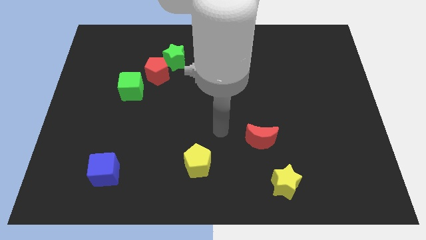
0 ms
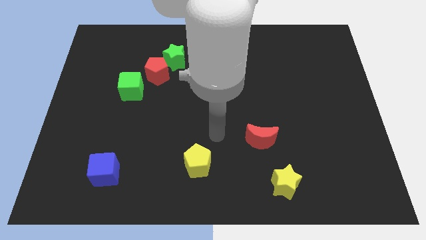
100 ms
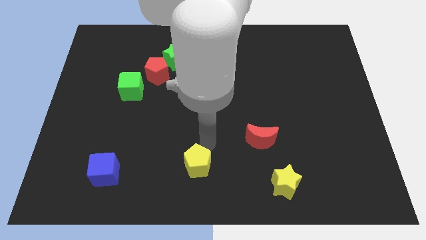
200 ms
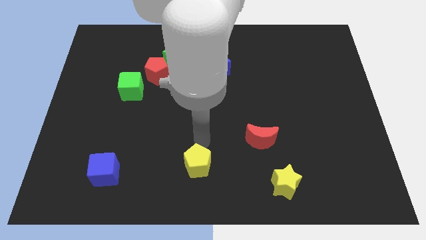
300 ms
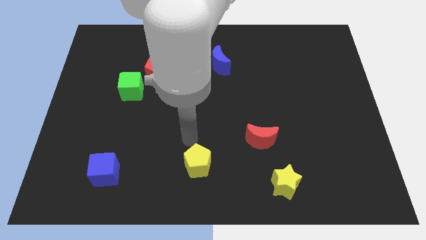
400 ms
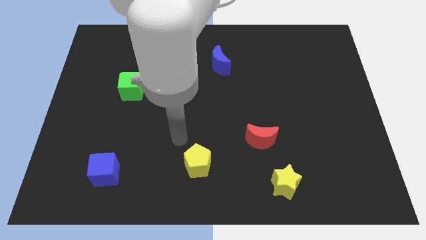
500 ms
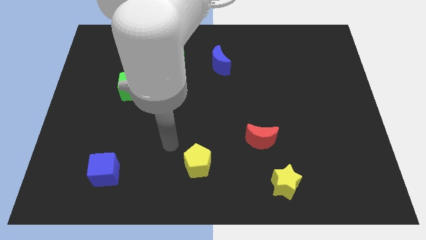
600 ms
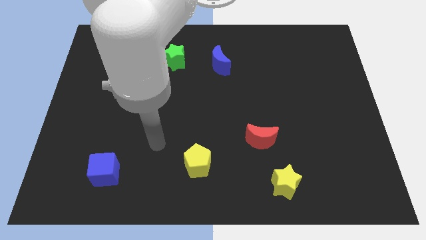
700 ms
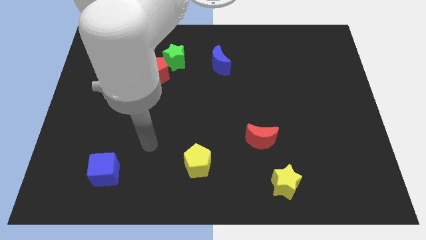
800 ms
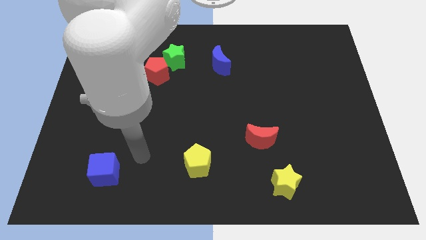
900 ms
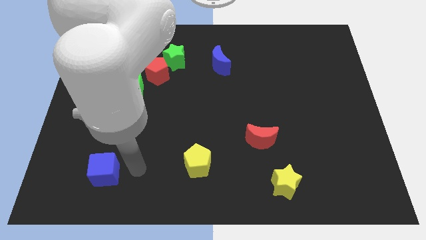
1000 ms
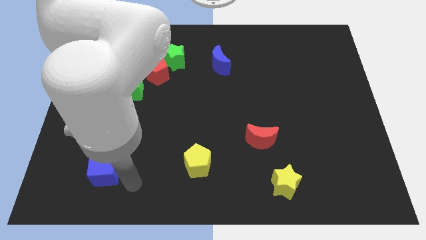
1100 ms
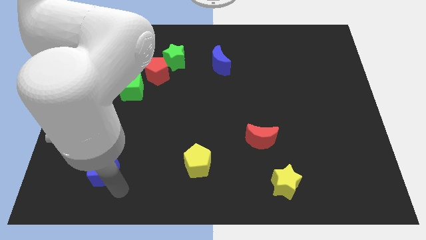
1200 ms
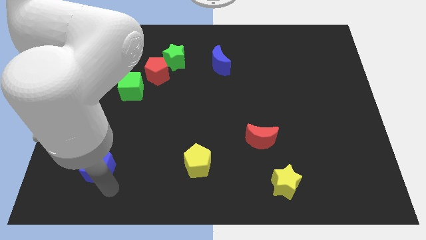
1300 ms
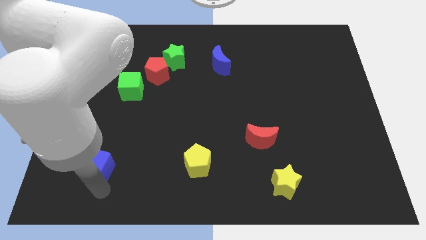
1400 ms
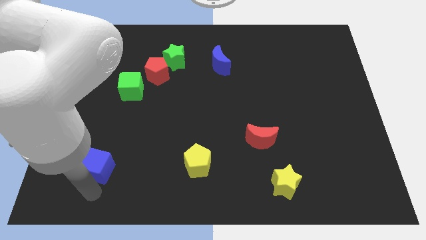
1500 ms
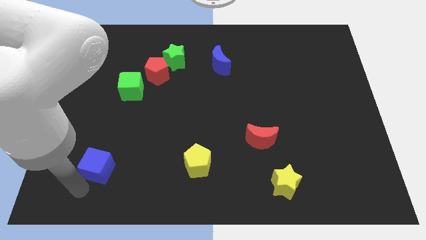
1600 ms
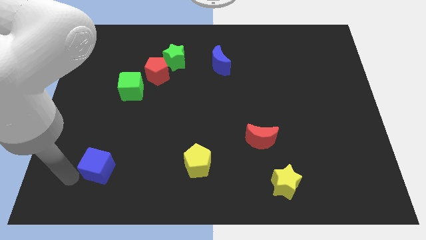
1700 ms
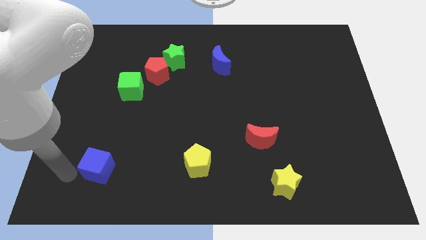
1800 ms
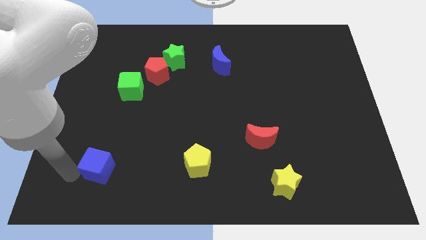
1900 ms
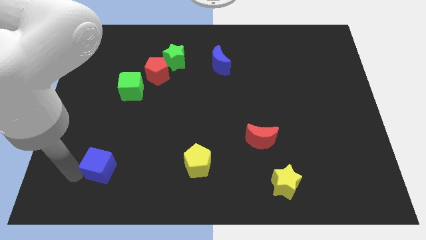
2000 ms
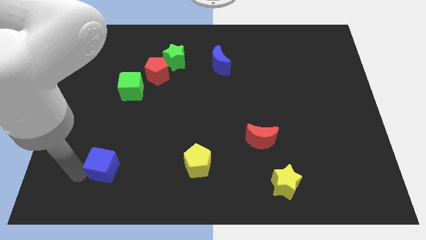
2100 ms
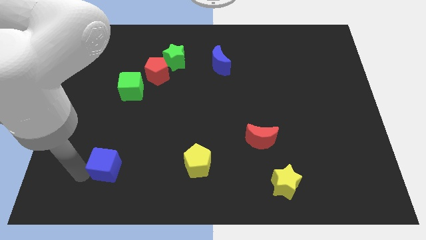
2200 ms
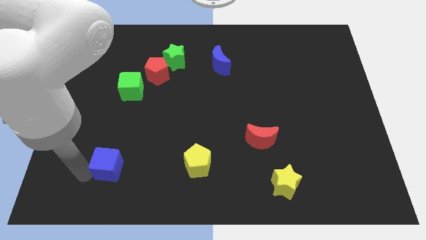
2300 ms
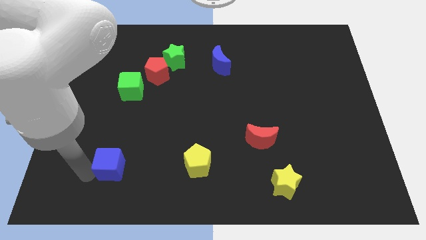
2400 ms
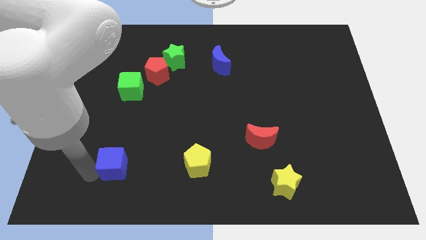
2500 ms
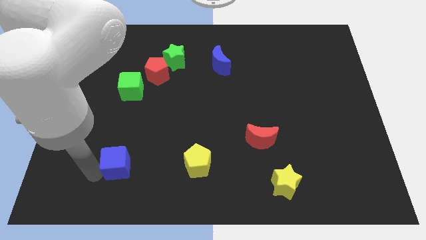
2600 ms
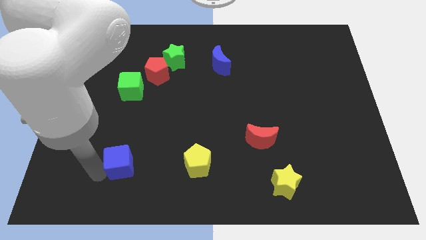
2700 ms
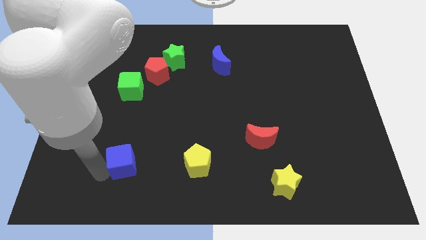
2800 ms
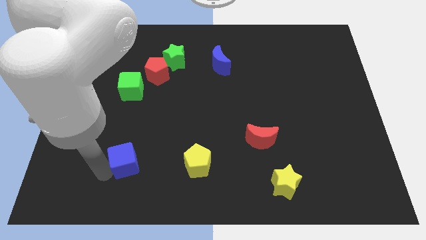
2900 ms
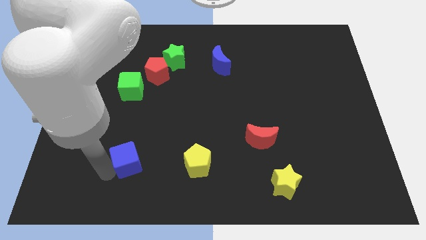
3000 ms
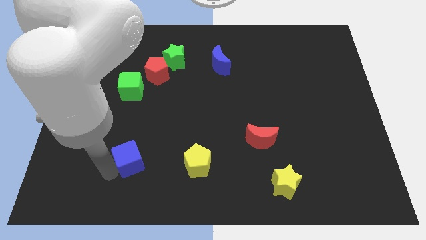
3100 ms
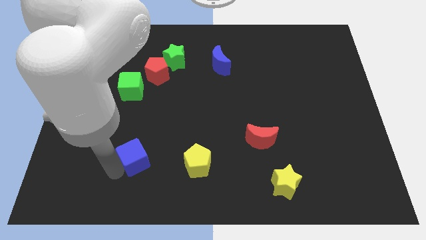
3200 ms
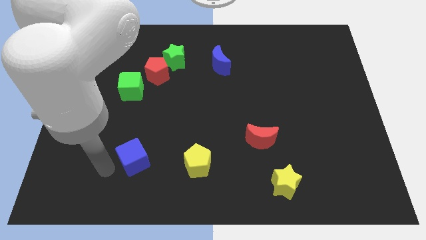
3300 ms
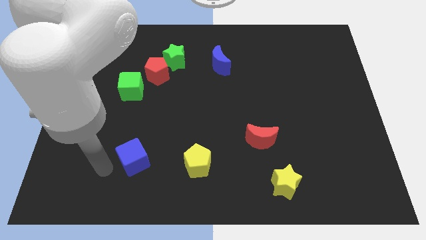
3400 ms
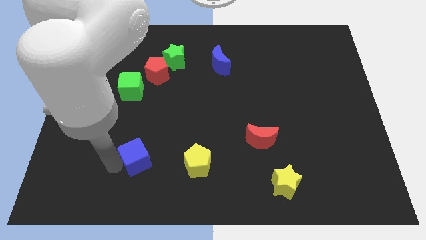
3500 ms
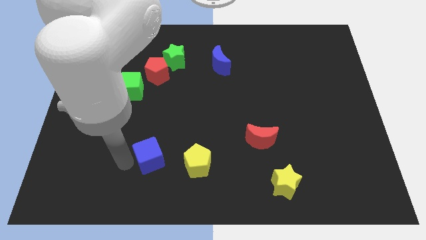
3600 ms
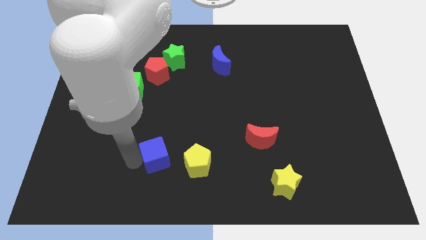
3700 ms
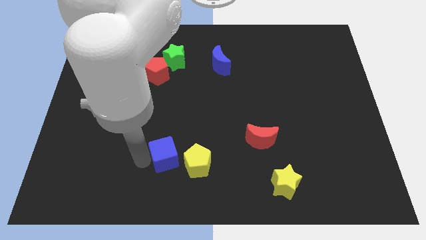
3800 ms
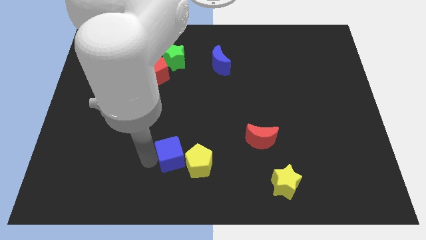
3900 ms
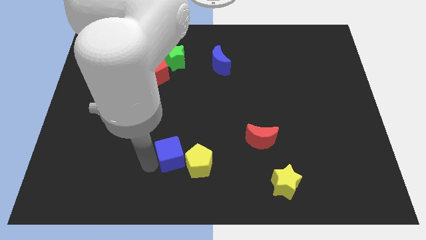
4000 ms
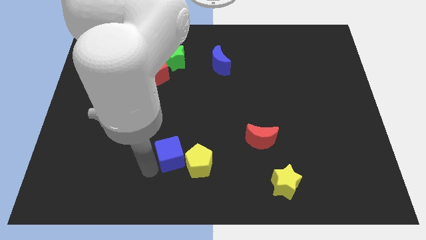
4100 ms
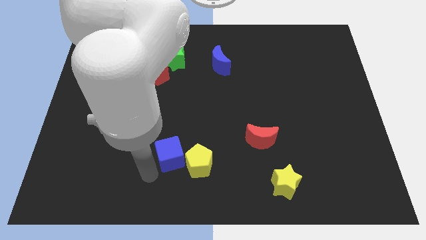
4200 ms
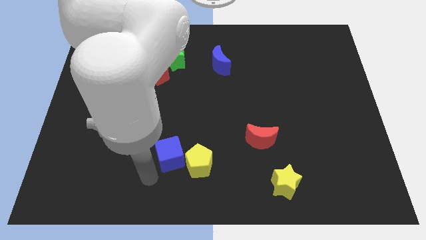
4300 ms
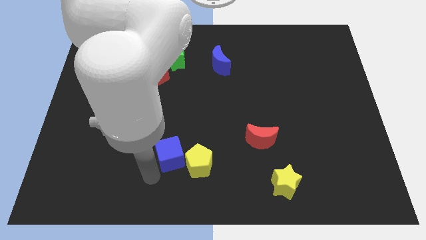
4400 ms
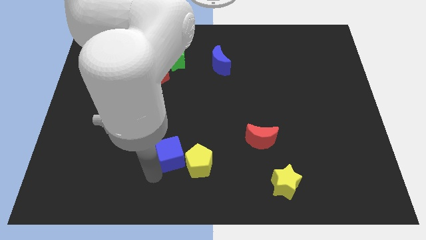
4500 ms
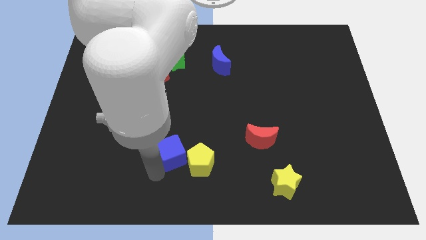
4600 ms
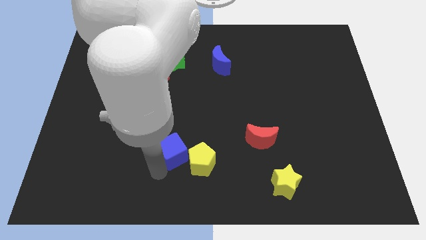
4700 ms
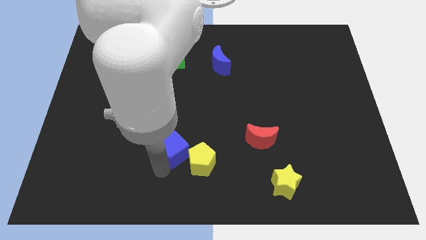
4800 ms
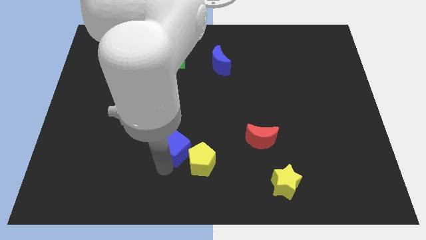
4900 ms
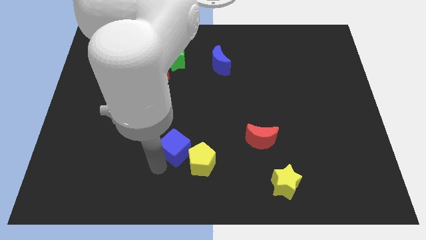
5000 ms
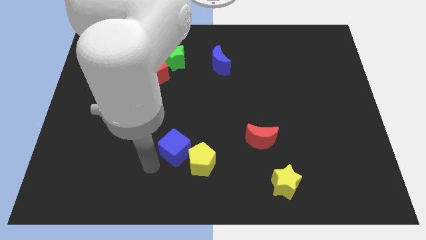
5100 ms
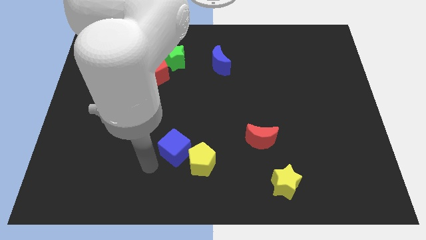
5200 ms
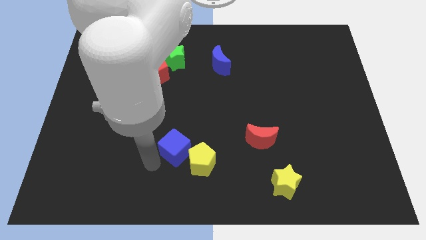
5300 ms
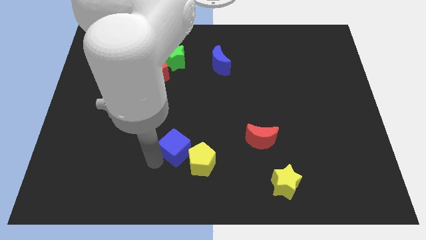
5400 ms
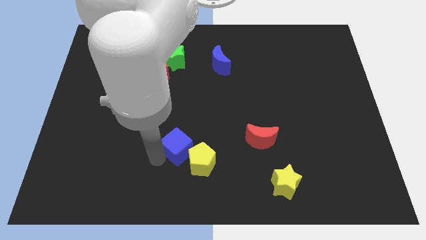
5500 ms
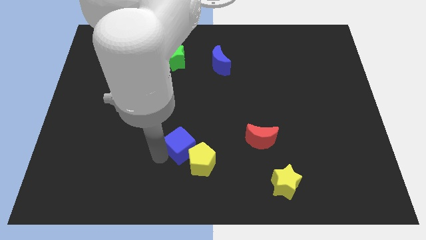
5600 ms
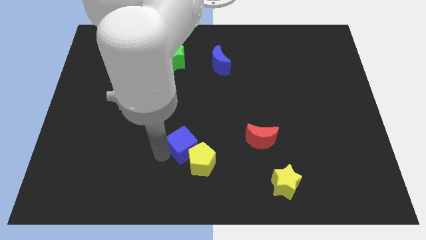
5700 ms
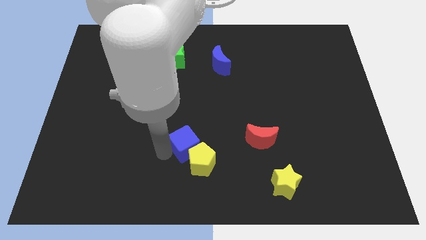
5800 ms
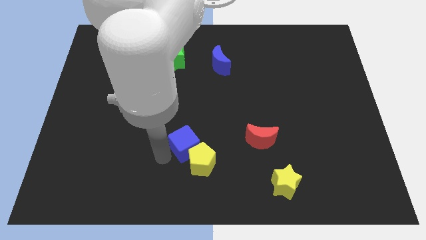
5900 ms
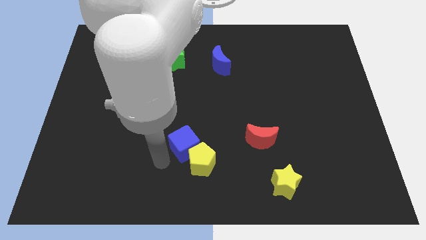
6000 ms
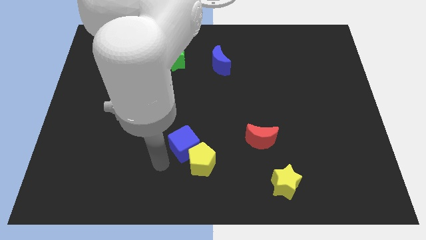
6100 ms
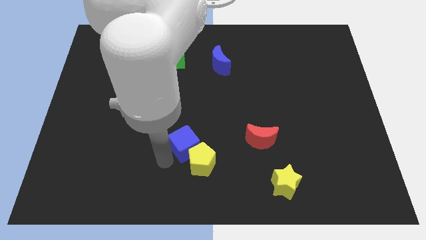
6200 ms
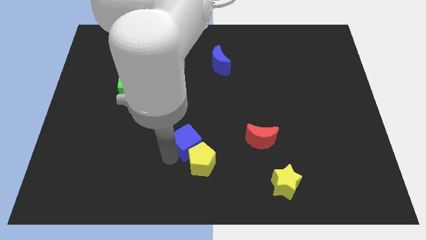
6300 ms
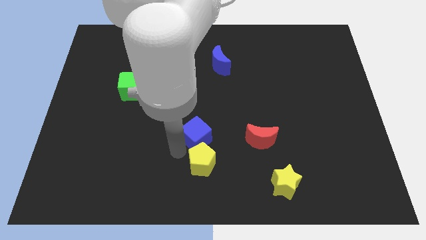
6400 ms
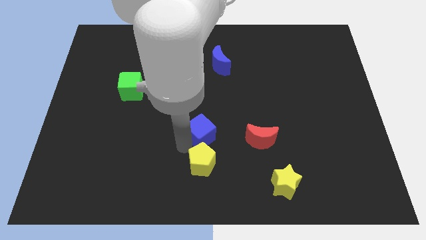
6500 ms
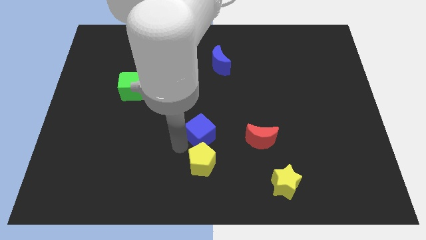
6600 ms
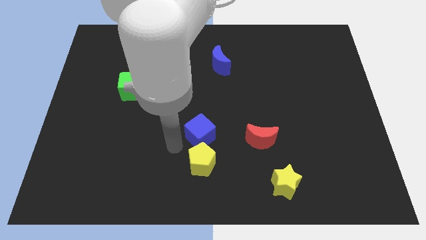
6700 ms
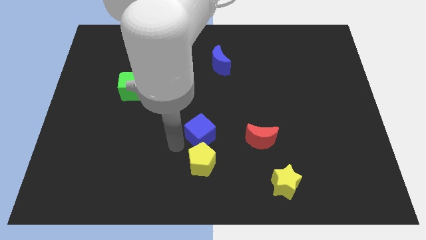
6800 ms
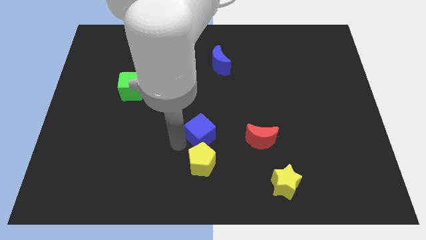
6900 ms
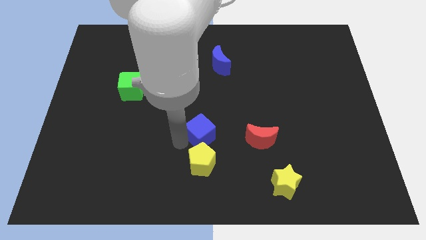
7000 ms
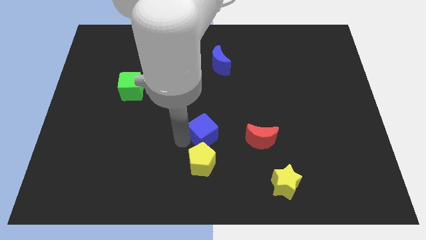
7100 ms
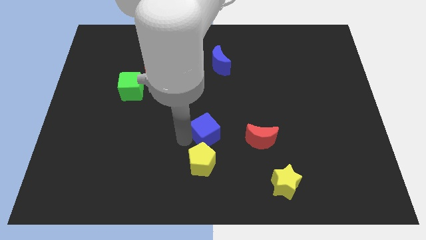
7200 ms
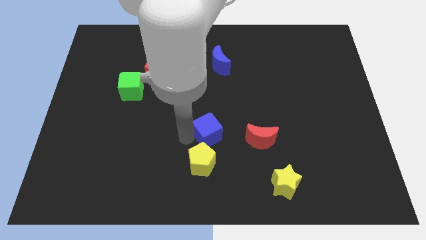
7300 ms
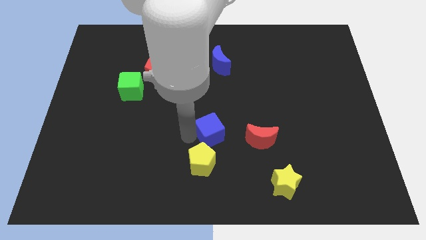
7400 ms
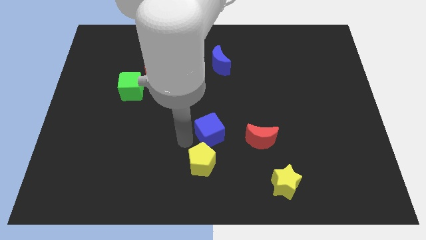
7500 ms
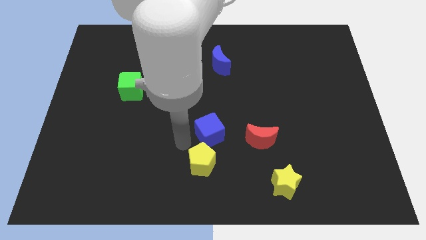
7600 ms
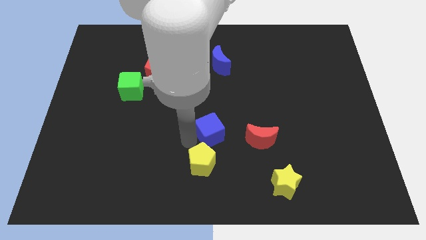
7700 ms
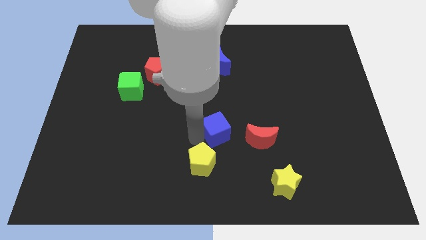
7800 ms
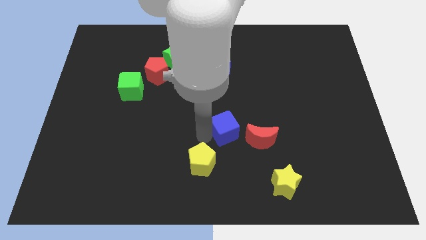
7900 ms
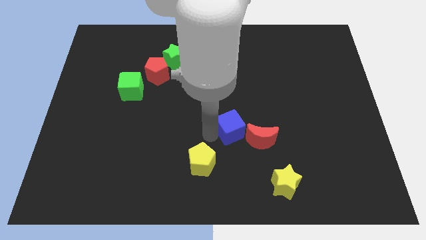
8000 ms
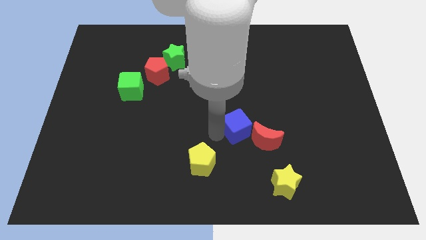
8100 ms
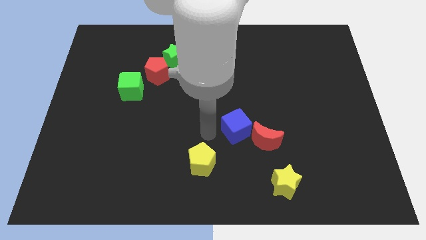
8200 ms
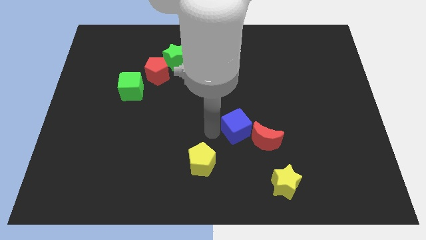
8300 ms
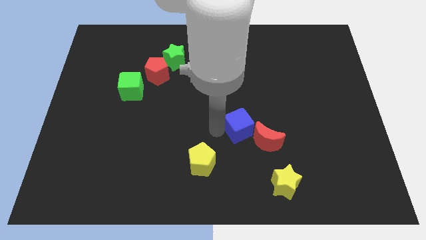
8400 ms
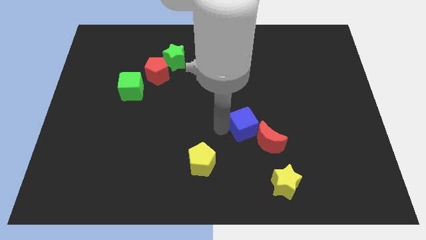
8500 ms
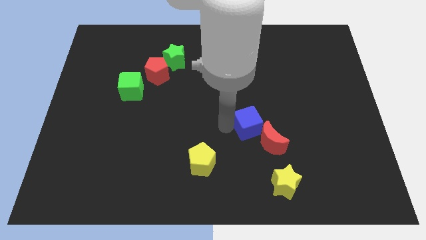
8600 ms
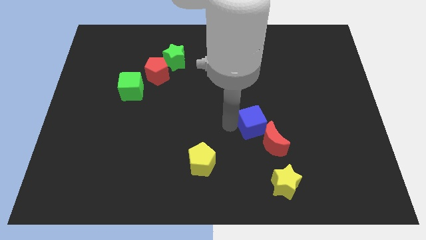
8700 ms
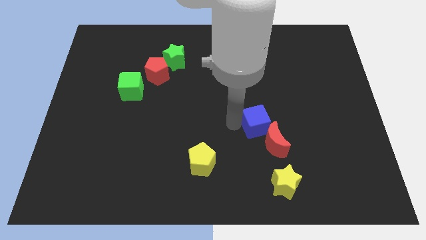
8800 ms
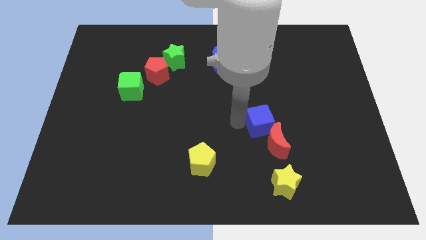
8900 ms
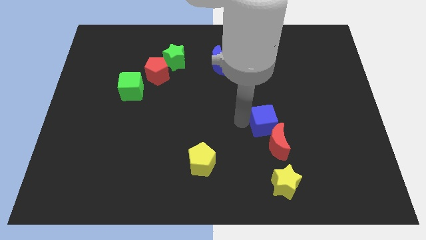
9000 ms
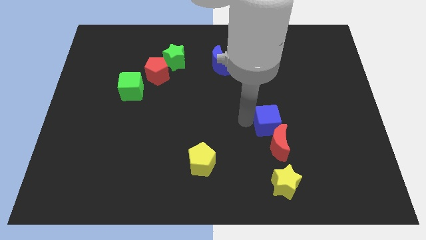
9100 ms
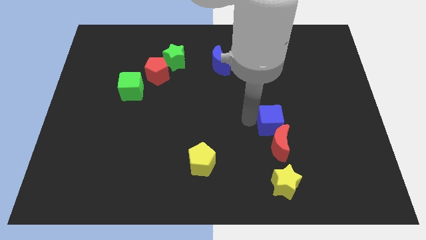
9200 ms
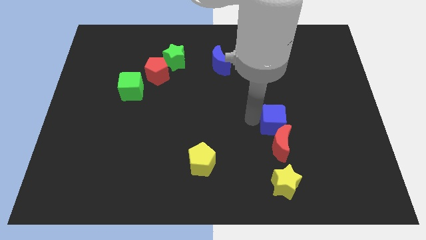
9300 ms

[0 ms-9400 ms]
put the blue cube to the top right of the red moon
